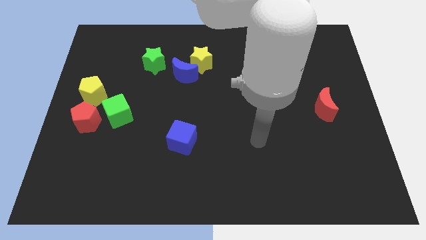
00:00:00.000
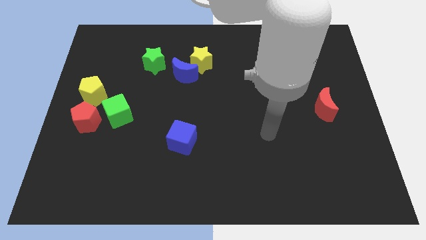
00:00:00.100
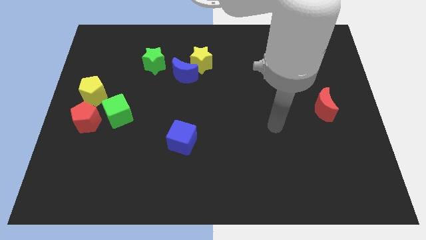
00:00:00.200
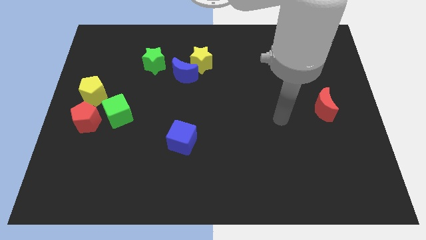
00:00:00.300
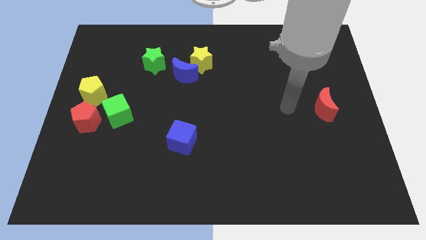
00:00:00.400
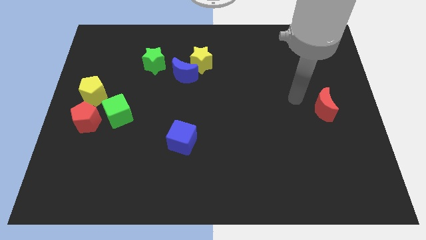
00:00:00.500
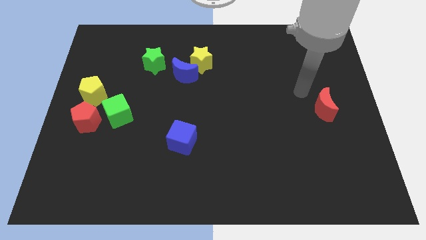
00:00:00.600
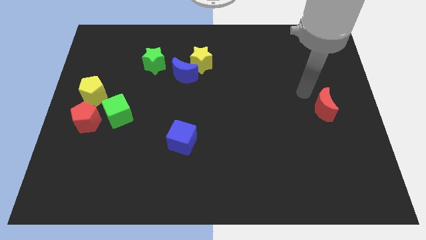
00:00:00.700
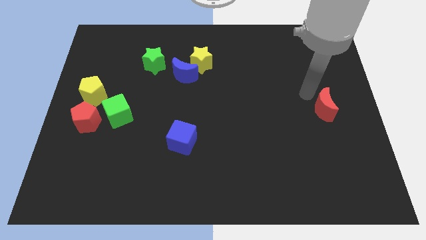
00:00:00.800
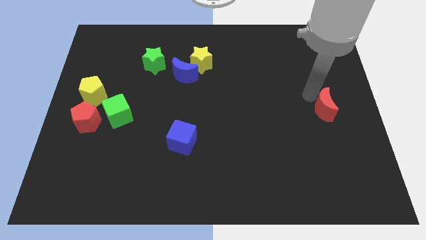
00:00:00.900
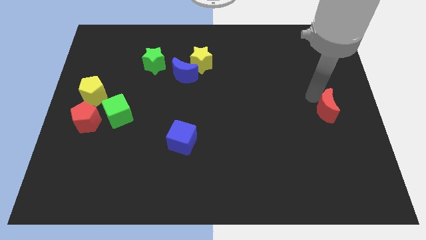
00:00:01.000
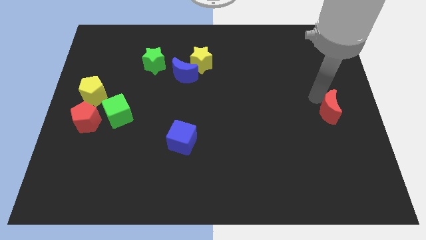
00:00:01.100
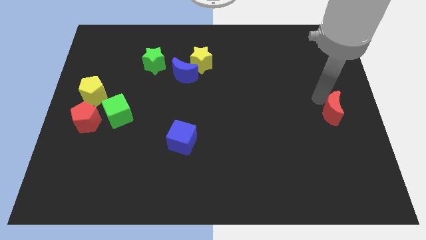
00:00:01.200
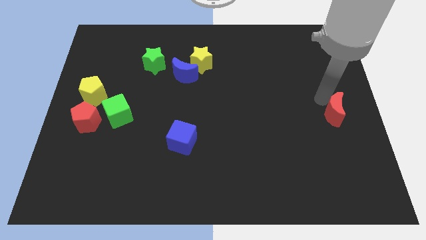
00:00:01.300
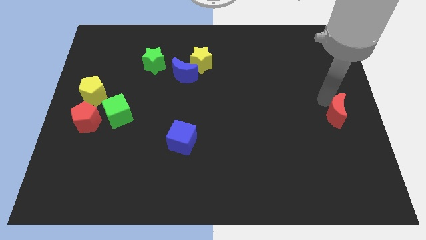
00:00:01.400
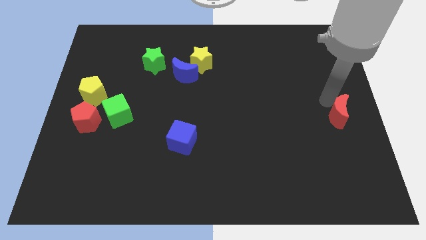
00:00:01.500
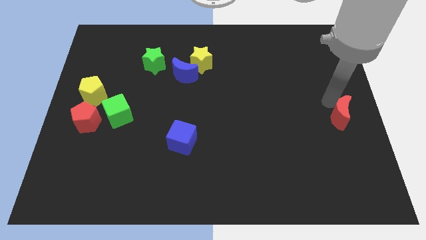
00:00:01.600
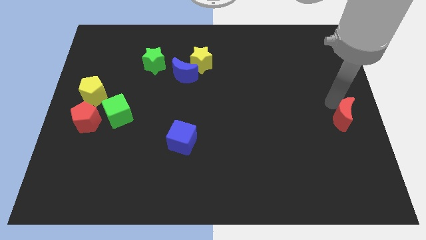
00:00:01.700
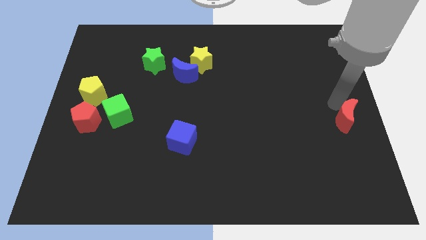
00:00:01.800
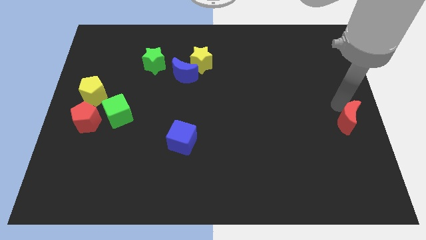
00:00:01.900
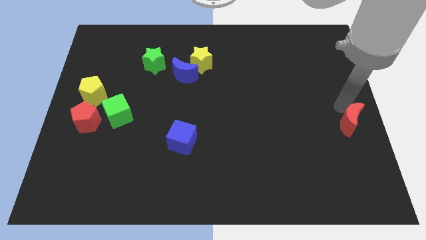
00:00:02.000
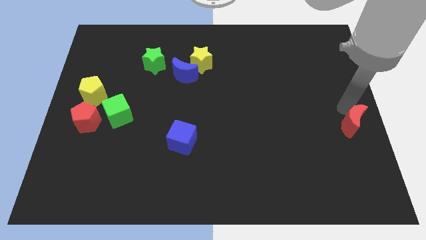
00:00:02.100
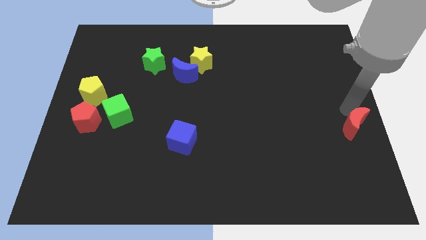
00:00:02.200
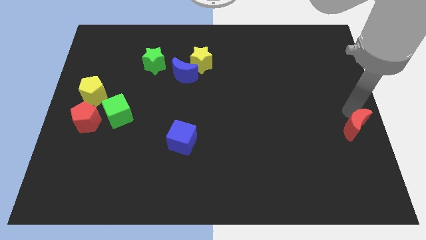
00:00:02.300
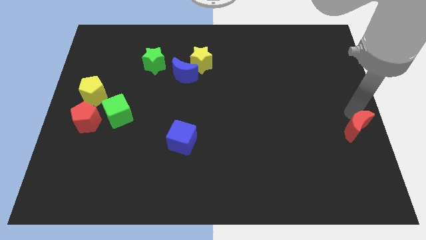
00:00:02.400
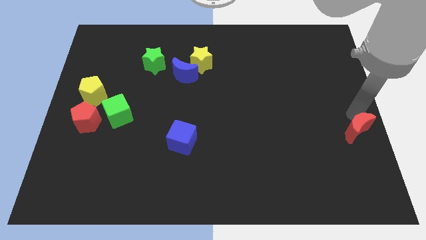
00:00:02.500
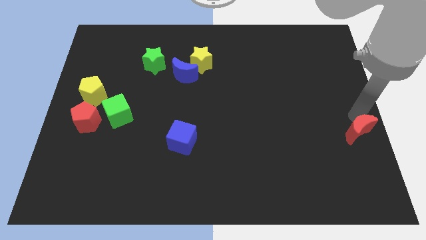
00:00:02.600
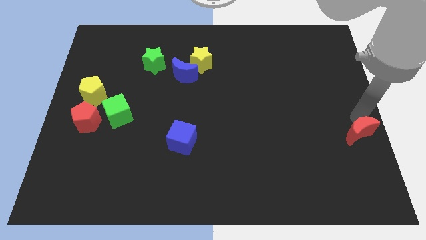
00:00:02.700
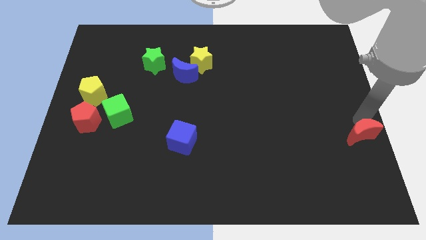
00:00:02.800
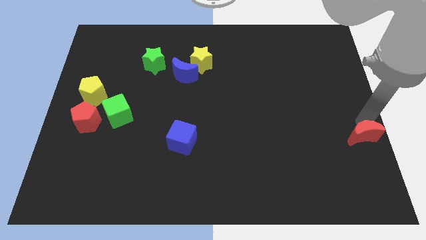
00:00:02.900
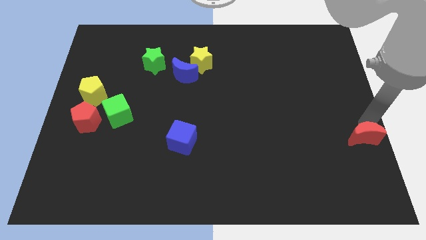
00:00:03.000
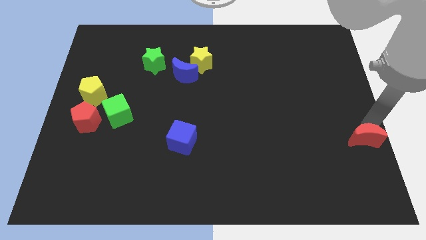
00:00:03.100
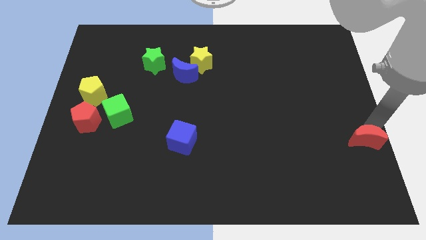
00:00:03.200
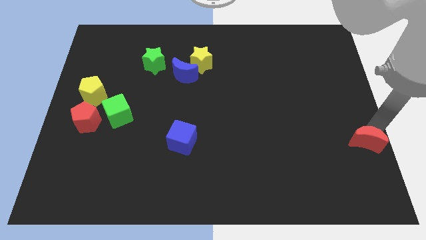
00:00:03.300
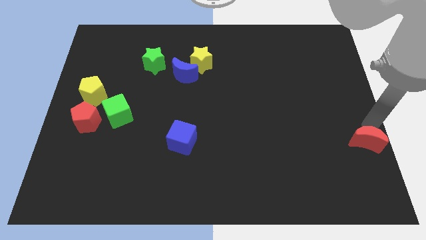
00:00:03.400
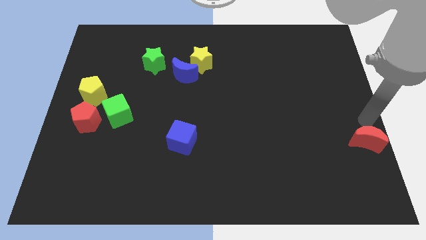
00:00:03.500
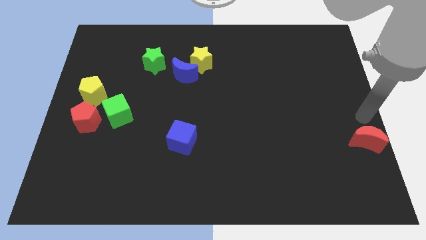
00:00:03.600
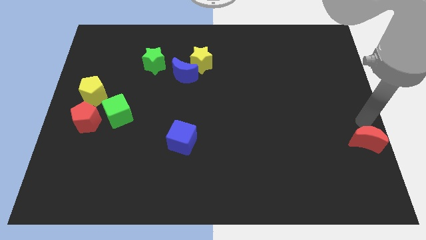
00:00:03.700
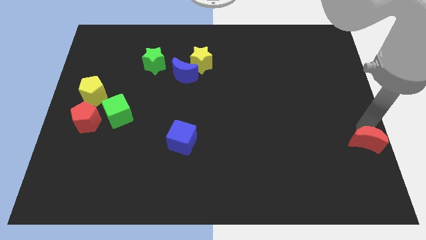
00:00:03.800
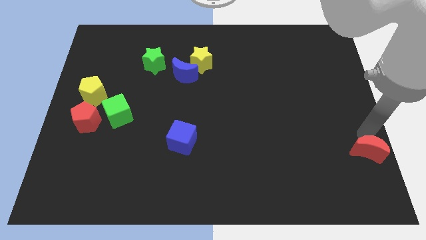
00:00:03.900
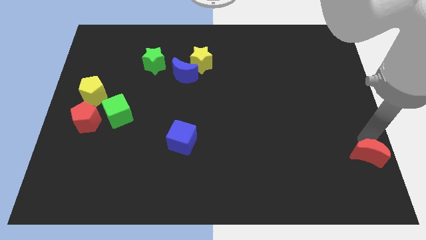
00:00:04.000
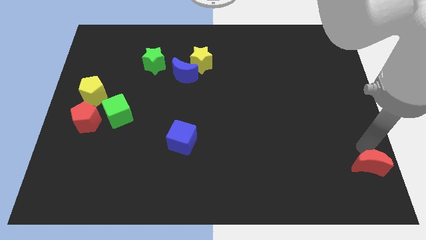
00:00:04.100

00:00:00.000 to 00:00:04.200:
push the red moon to the bottom right corner

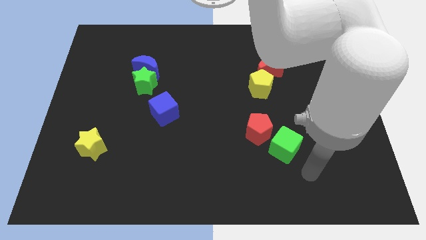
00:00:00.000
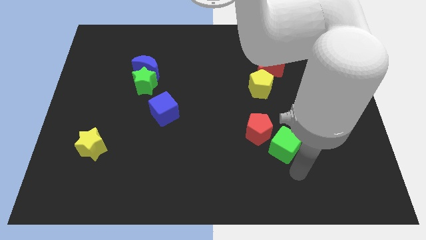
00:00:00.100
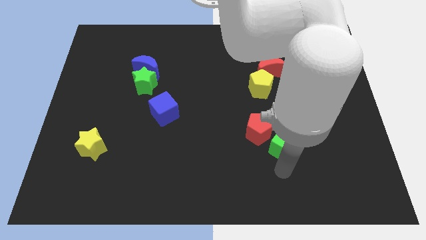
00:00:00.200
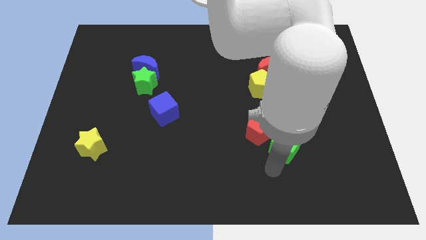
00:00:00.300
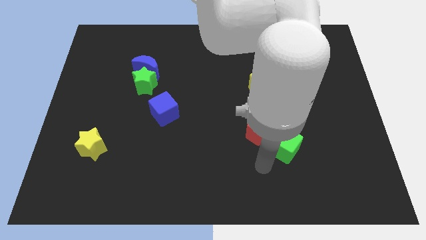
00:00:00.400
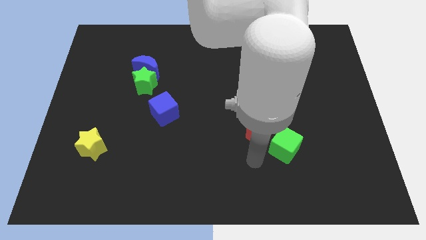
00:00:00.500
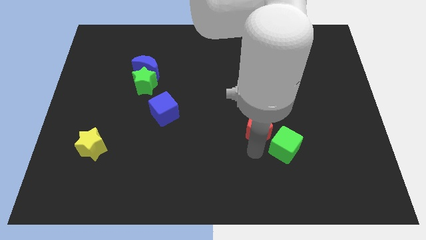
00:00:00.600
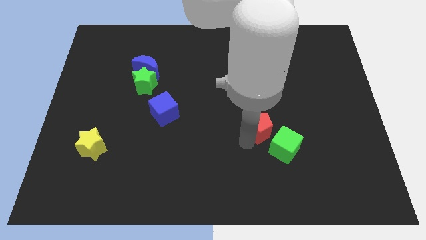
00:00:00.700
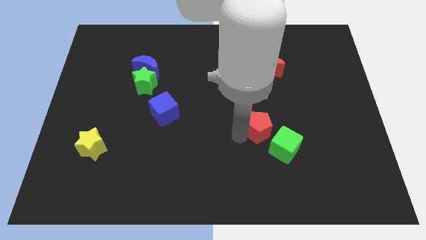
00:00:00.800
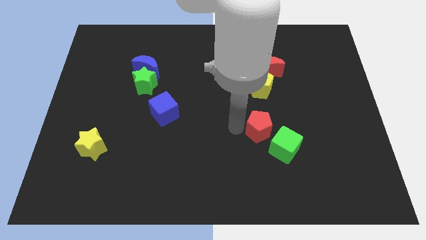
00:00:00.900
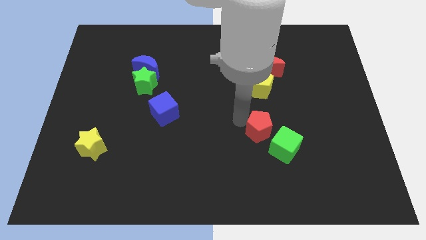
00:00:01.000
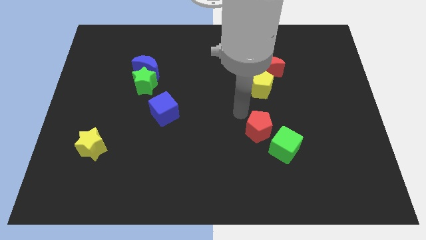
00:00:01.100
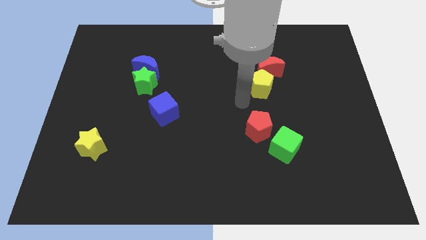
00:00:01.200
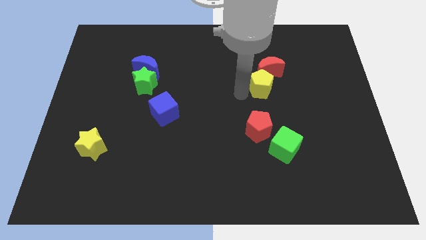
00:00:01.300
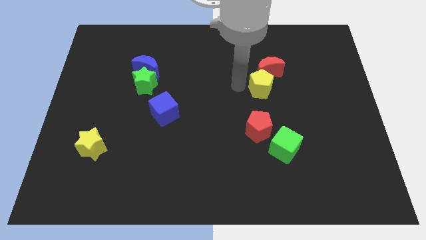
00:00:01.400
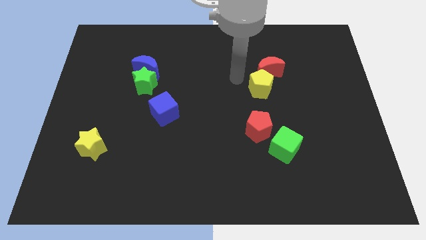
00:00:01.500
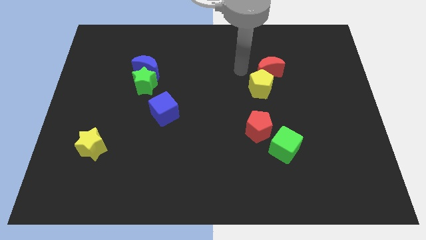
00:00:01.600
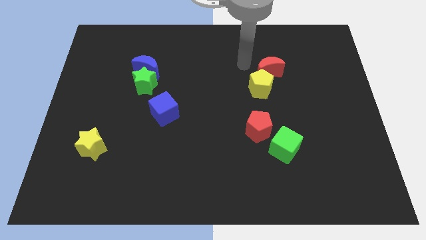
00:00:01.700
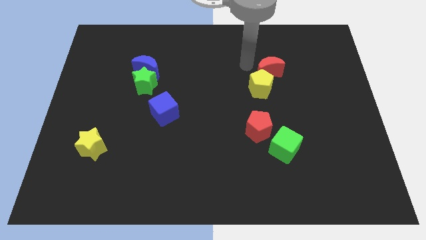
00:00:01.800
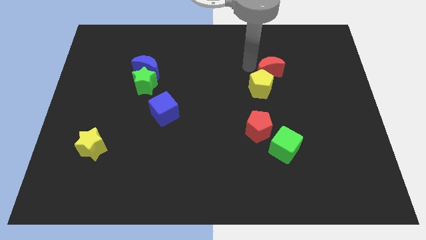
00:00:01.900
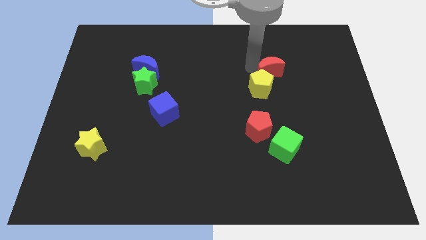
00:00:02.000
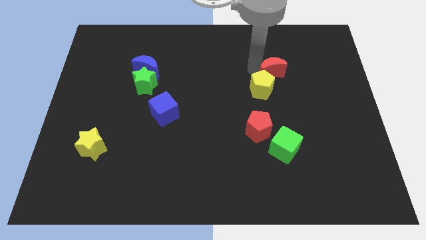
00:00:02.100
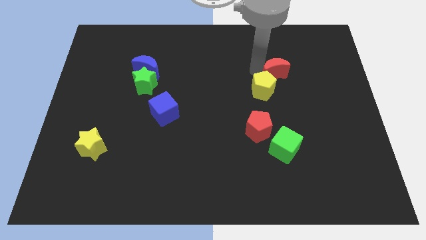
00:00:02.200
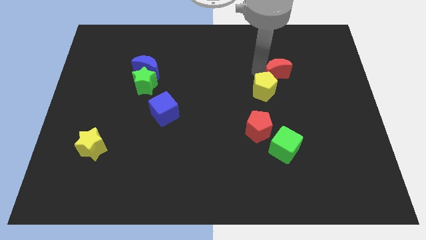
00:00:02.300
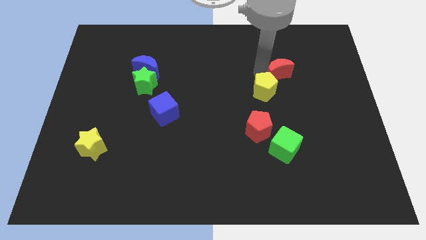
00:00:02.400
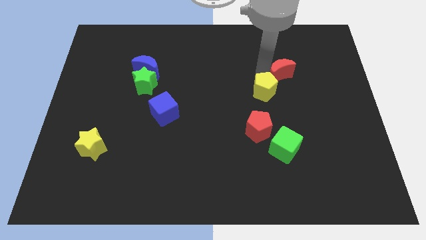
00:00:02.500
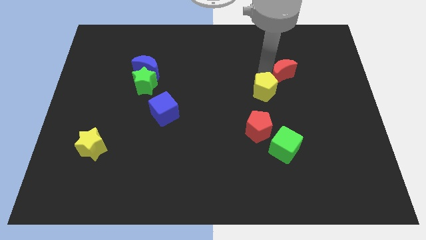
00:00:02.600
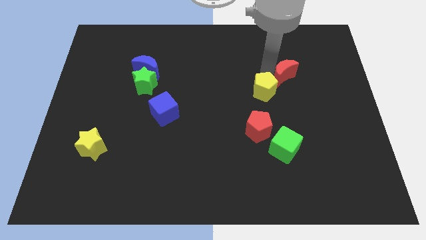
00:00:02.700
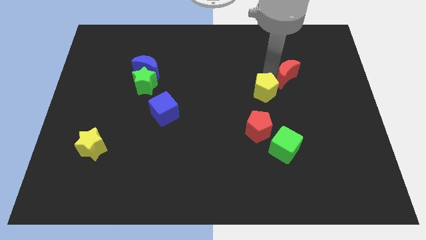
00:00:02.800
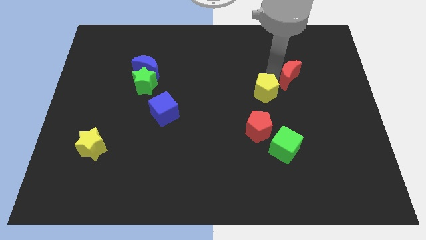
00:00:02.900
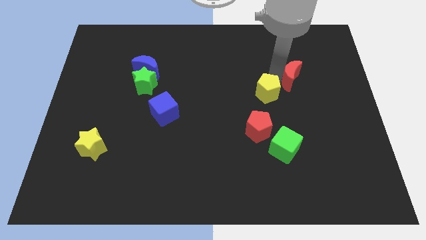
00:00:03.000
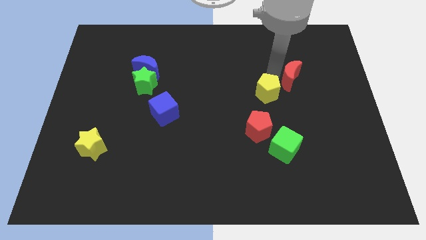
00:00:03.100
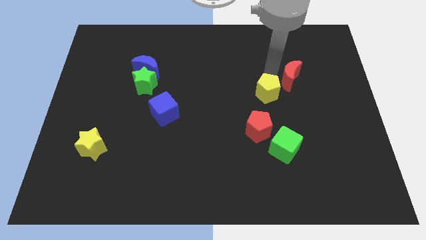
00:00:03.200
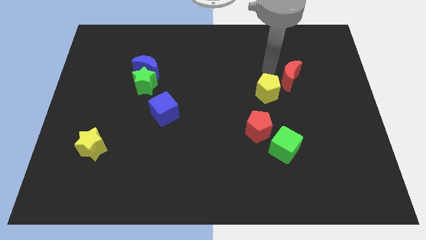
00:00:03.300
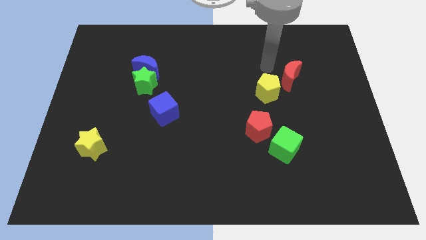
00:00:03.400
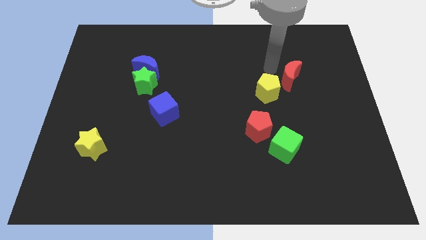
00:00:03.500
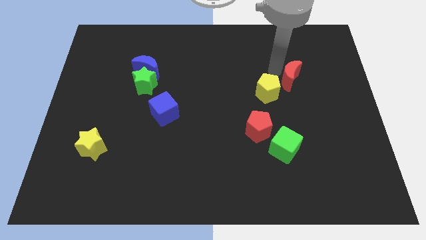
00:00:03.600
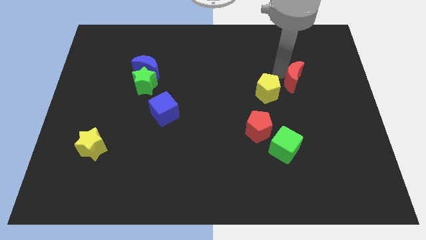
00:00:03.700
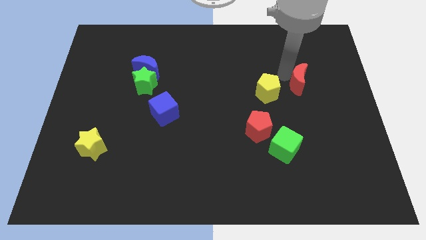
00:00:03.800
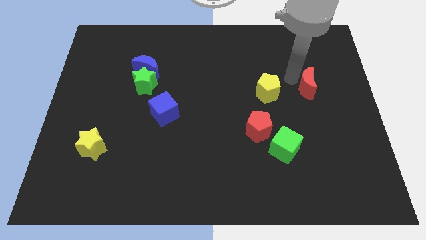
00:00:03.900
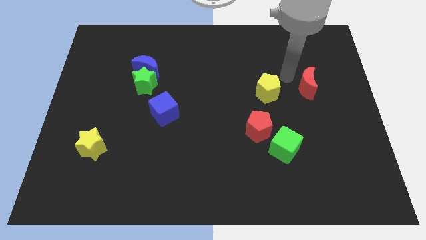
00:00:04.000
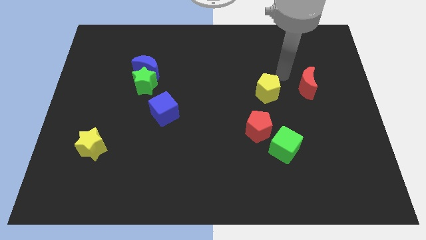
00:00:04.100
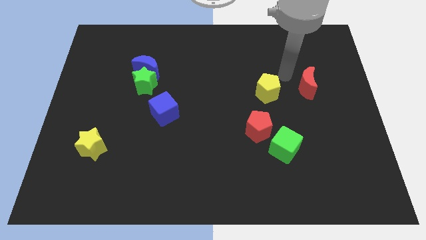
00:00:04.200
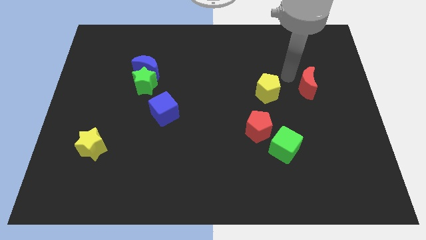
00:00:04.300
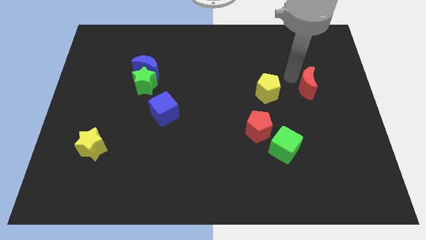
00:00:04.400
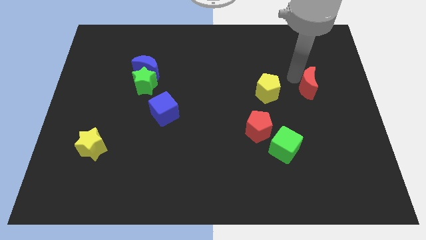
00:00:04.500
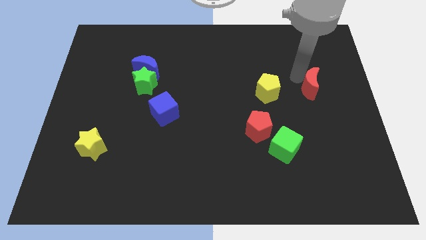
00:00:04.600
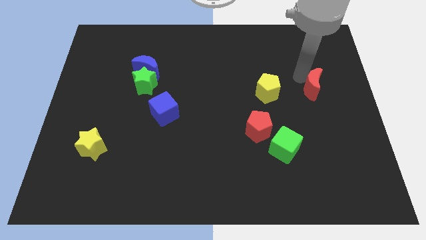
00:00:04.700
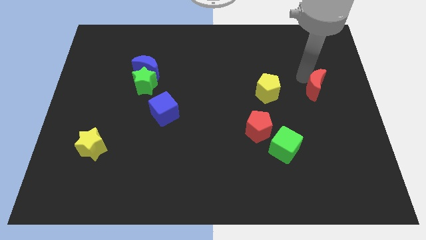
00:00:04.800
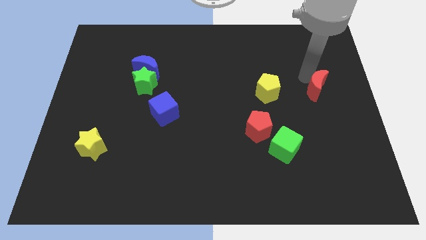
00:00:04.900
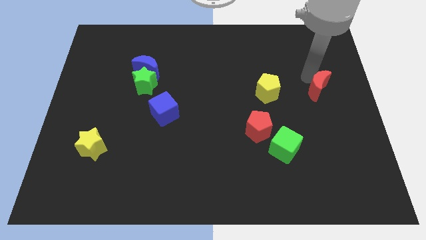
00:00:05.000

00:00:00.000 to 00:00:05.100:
slide the red moon to the right side
